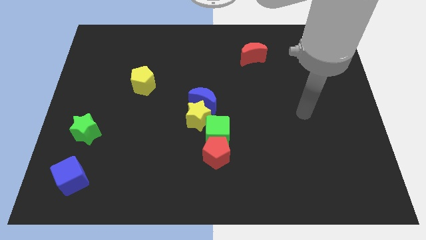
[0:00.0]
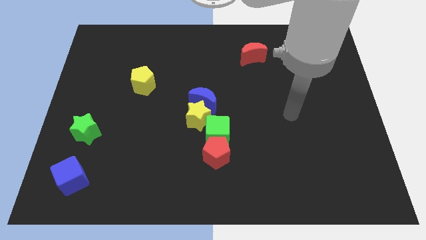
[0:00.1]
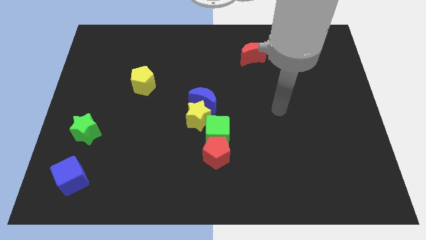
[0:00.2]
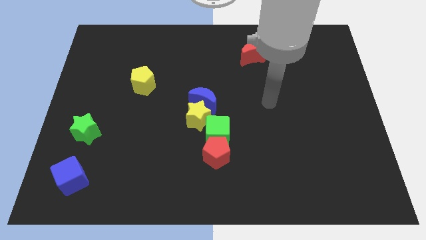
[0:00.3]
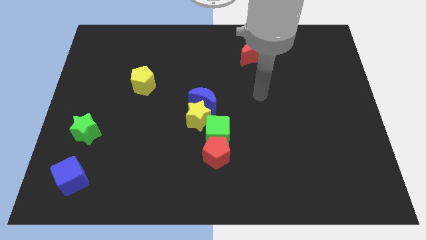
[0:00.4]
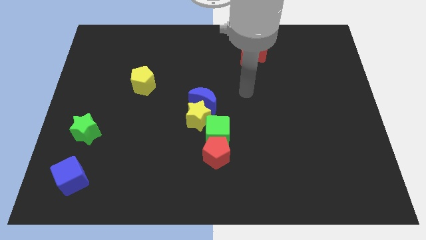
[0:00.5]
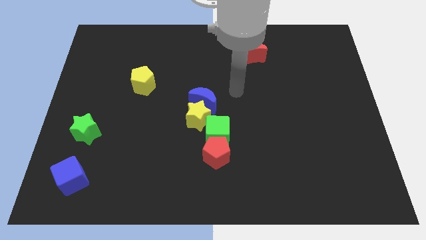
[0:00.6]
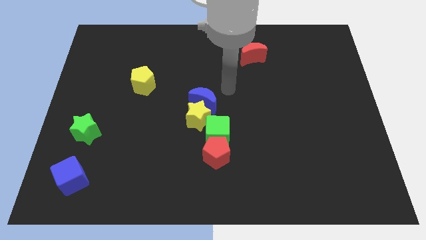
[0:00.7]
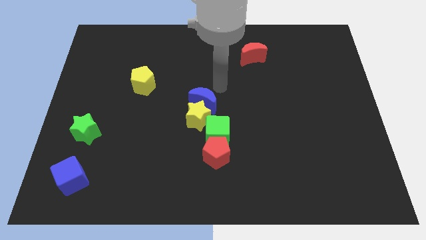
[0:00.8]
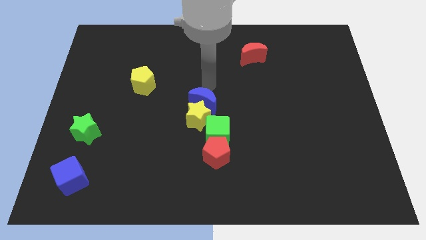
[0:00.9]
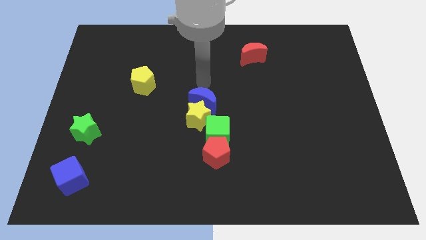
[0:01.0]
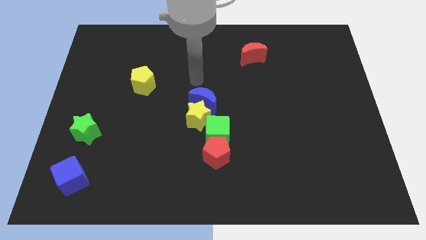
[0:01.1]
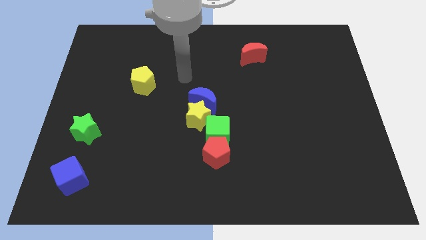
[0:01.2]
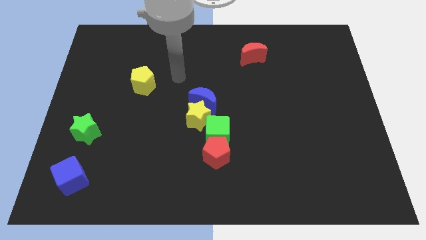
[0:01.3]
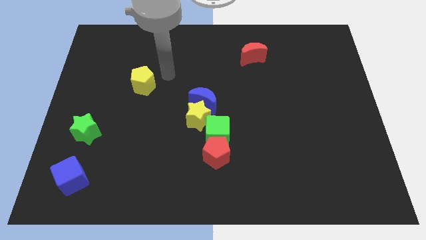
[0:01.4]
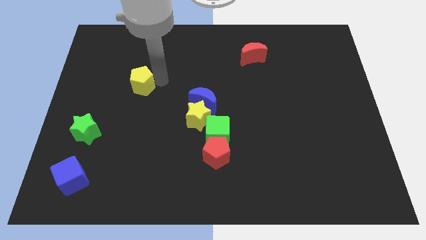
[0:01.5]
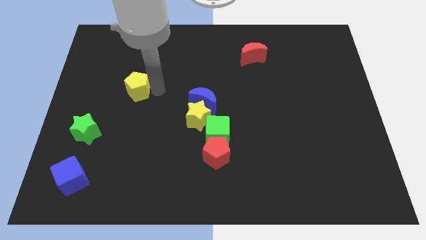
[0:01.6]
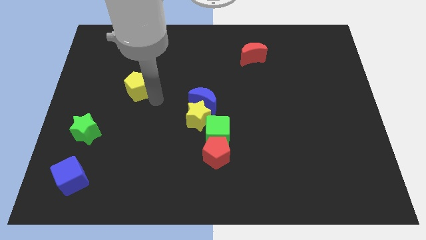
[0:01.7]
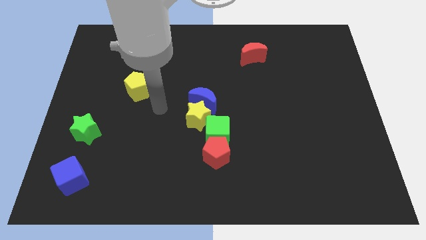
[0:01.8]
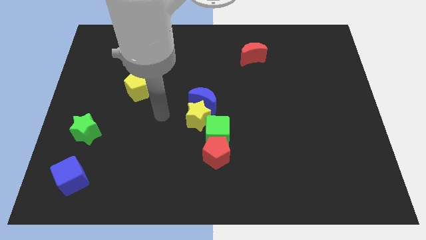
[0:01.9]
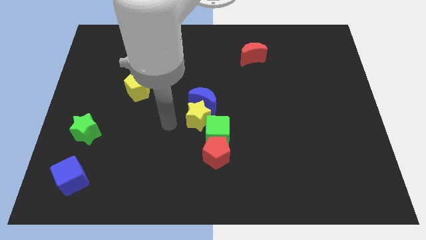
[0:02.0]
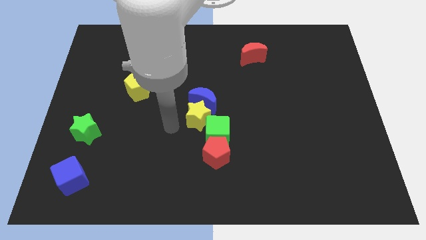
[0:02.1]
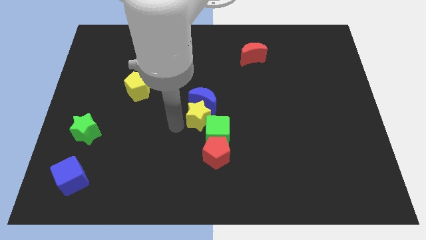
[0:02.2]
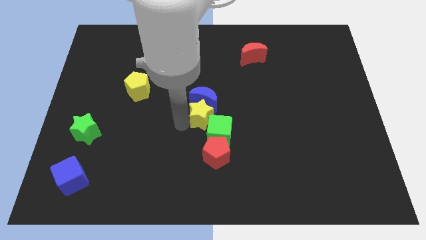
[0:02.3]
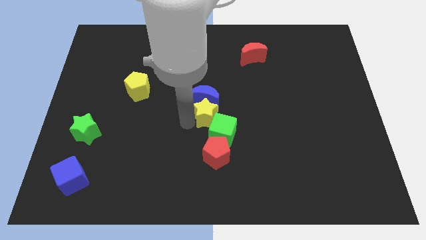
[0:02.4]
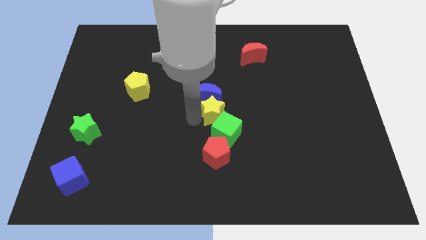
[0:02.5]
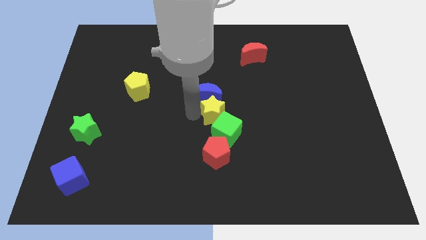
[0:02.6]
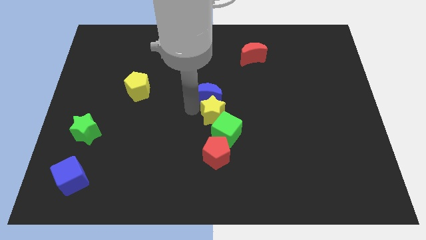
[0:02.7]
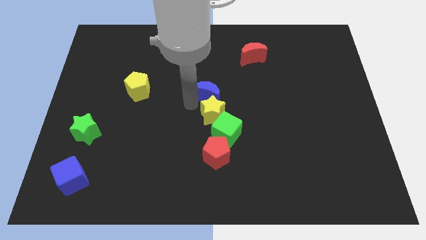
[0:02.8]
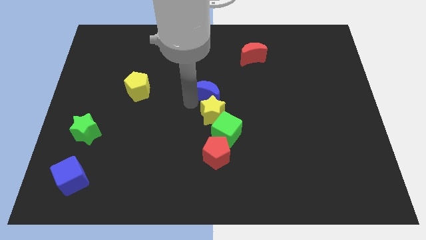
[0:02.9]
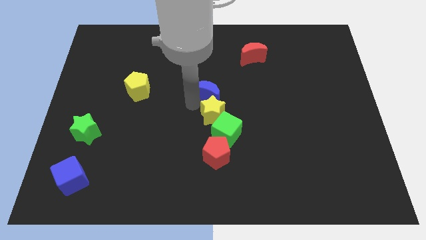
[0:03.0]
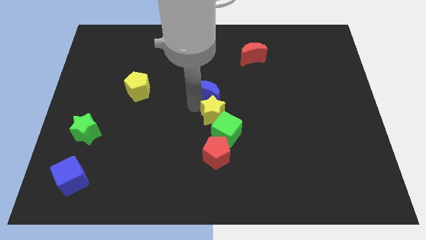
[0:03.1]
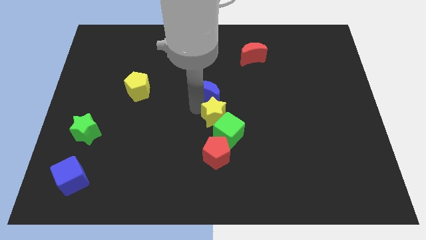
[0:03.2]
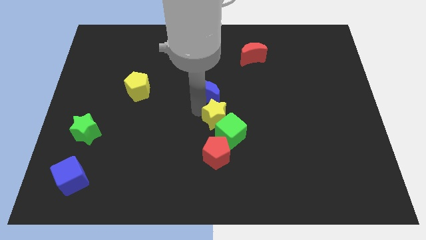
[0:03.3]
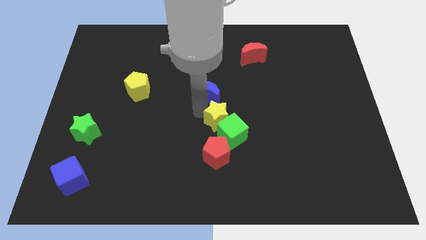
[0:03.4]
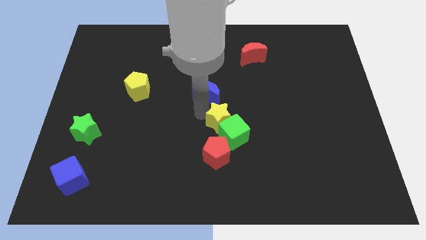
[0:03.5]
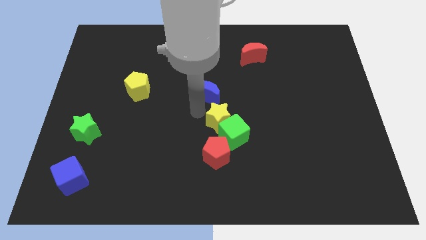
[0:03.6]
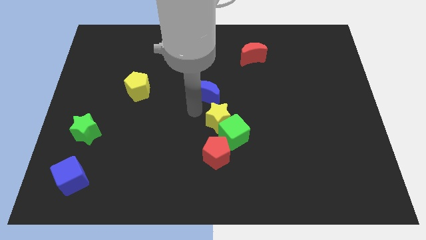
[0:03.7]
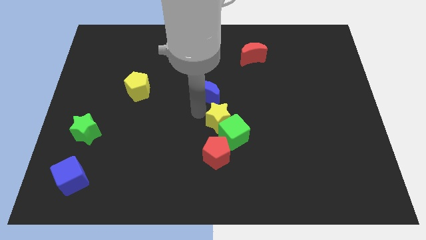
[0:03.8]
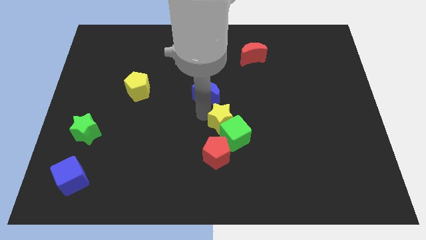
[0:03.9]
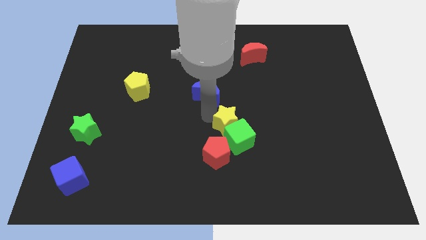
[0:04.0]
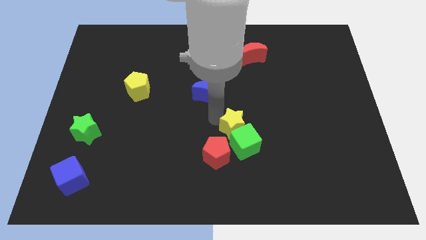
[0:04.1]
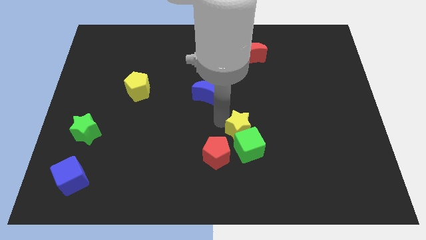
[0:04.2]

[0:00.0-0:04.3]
move the yellow star somewhat downwards and to the right

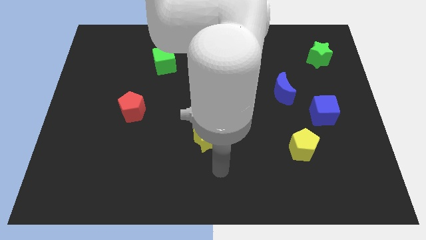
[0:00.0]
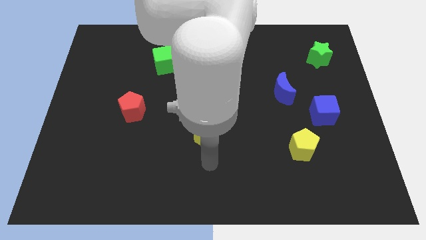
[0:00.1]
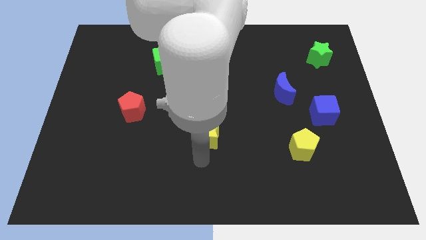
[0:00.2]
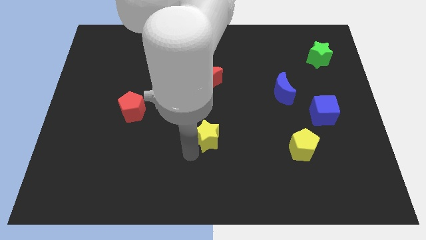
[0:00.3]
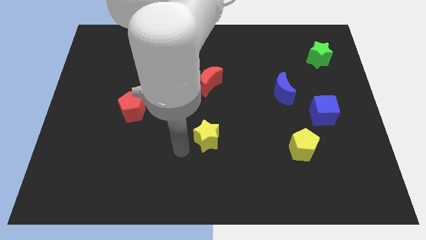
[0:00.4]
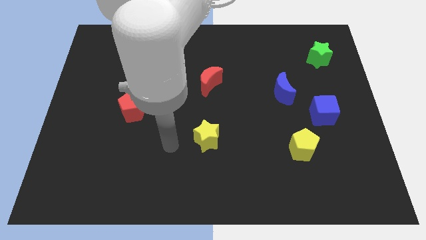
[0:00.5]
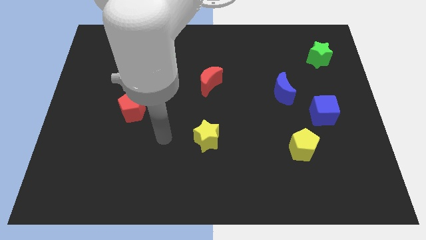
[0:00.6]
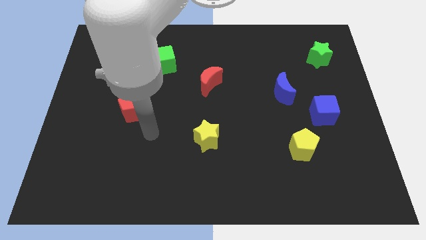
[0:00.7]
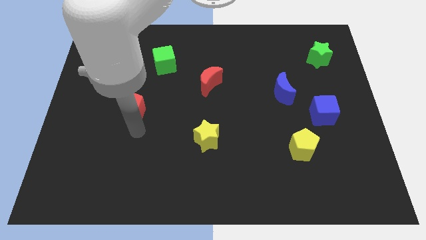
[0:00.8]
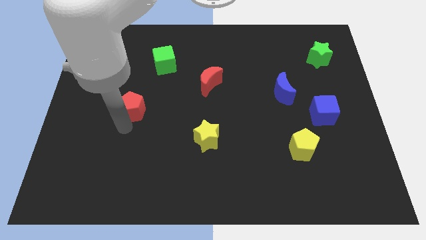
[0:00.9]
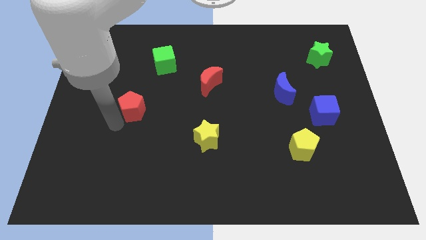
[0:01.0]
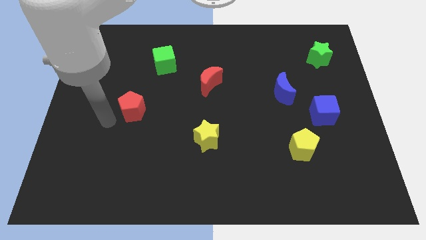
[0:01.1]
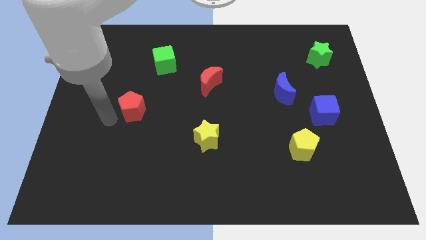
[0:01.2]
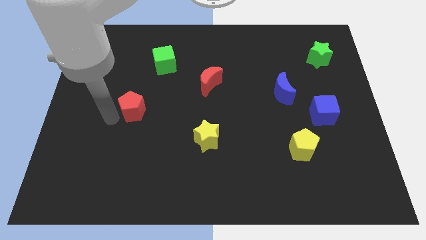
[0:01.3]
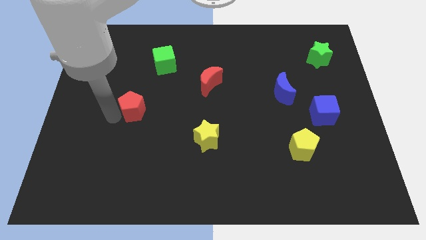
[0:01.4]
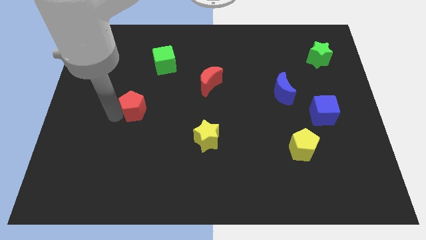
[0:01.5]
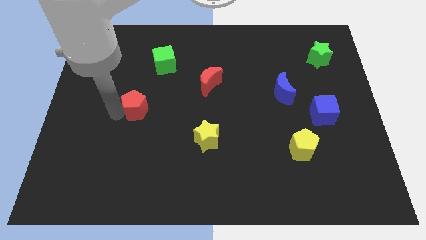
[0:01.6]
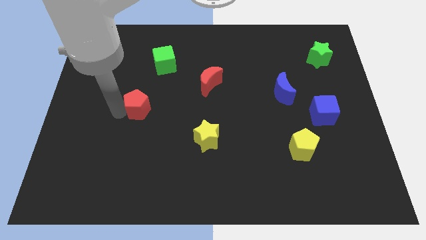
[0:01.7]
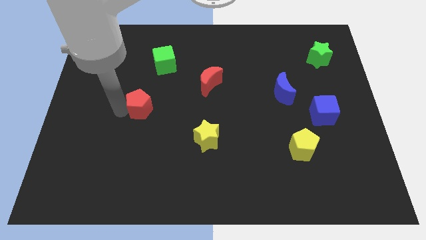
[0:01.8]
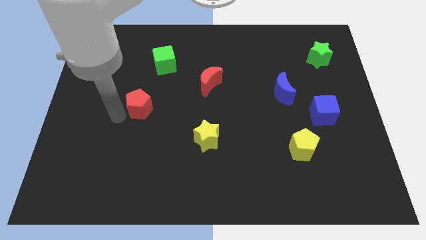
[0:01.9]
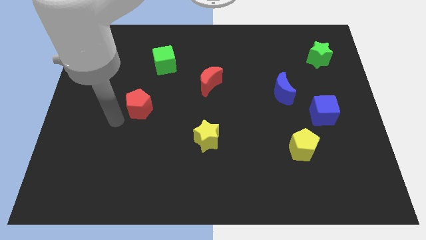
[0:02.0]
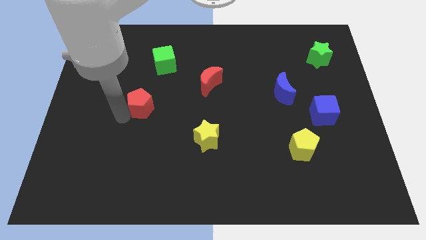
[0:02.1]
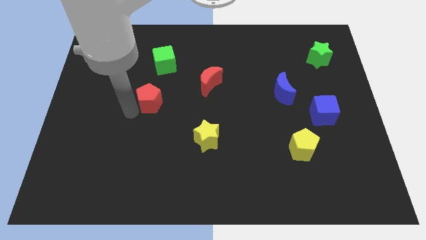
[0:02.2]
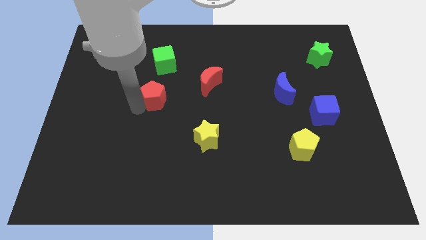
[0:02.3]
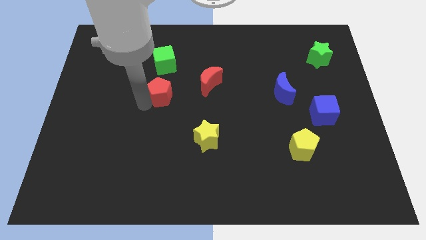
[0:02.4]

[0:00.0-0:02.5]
move the red pentagon up and right diagonally a little

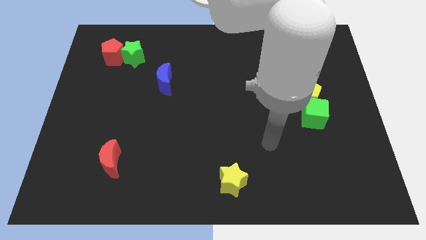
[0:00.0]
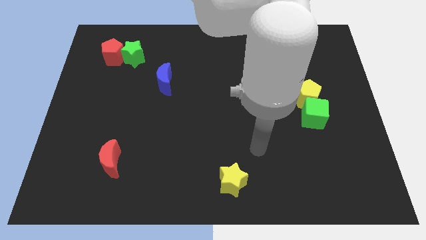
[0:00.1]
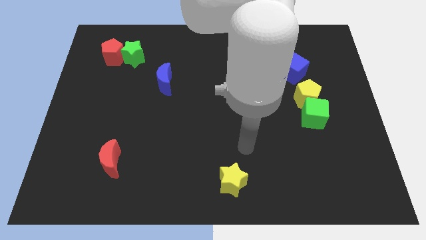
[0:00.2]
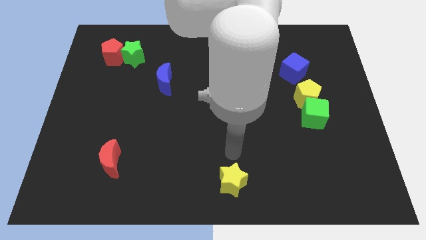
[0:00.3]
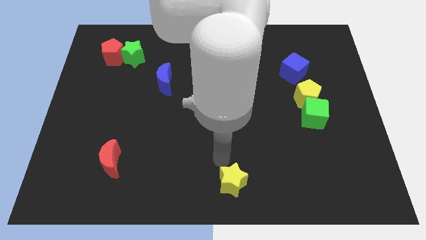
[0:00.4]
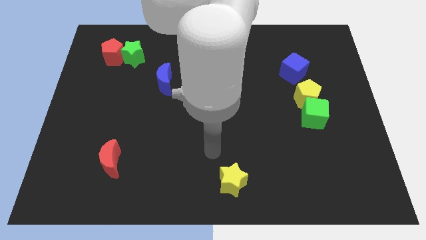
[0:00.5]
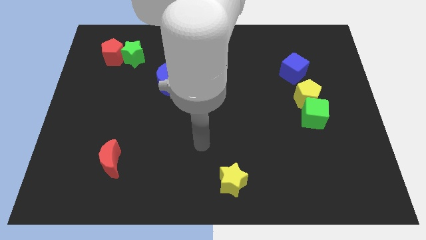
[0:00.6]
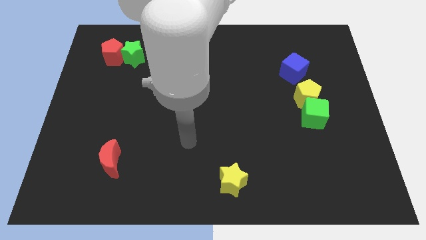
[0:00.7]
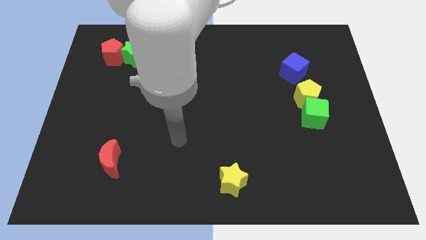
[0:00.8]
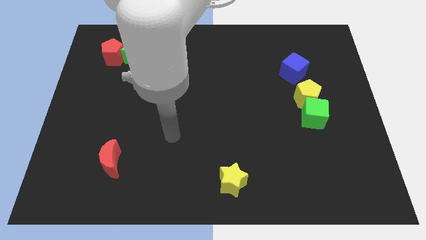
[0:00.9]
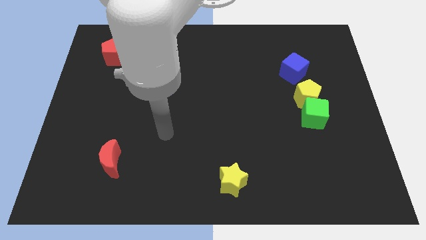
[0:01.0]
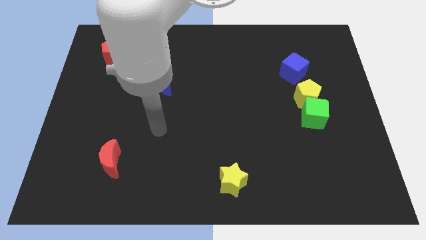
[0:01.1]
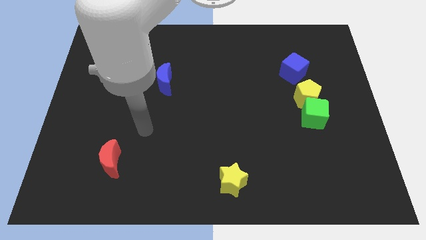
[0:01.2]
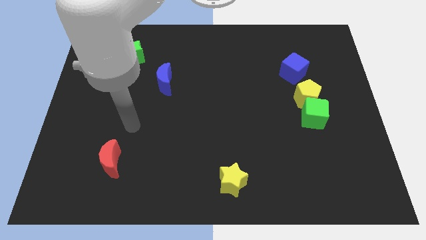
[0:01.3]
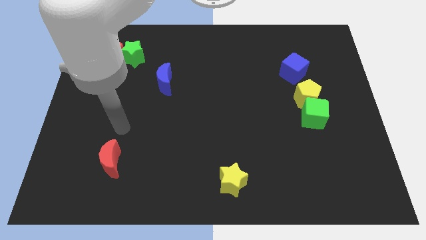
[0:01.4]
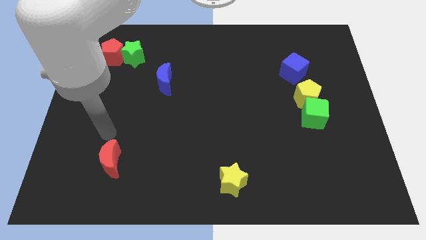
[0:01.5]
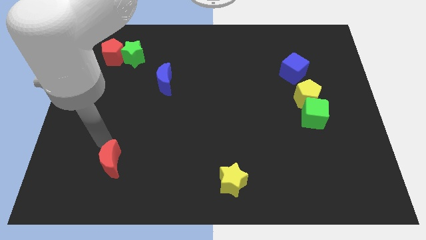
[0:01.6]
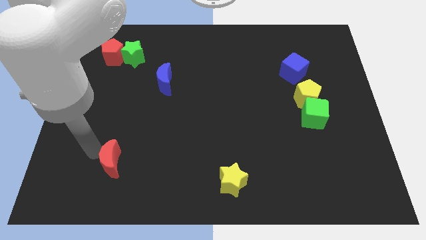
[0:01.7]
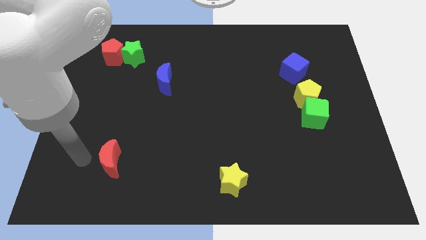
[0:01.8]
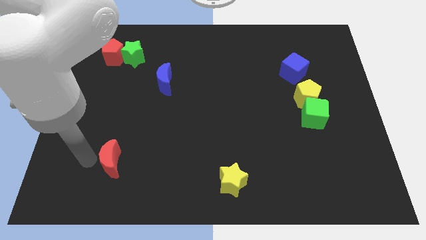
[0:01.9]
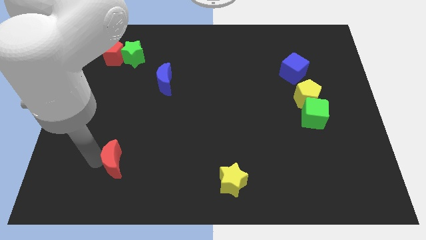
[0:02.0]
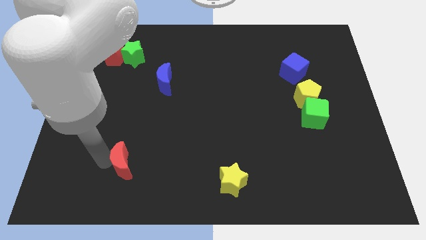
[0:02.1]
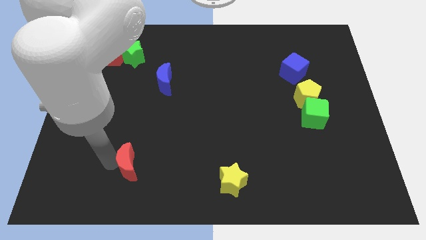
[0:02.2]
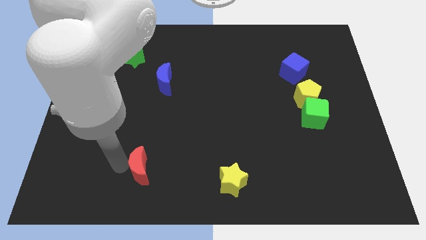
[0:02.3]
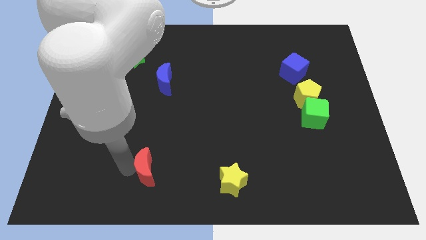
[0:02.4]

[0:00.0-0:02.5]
move the red moon to the right a little bit
